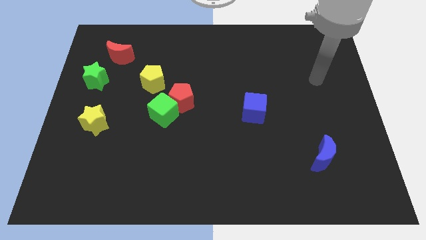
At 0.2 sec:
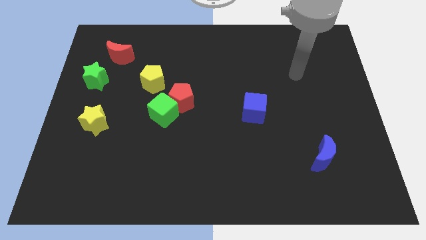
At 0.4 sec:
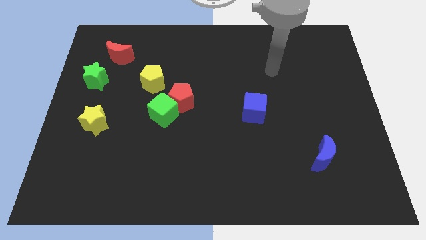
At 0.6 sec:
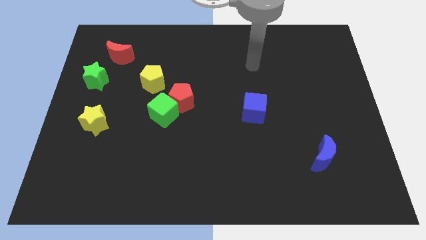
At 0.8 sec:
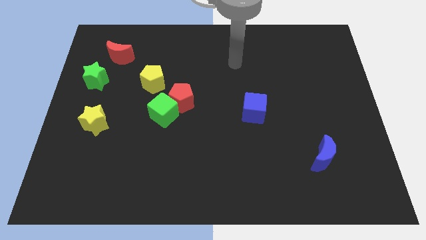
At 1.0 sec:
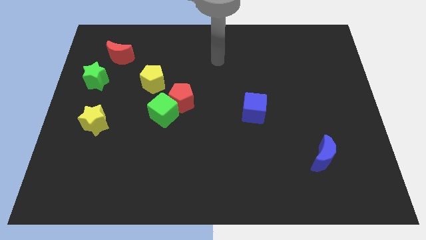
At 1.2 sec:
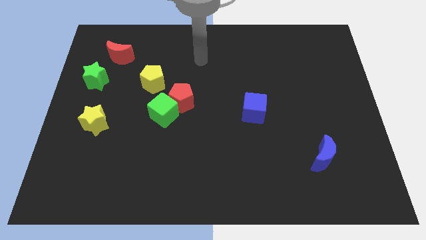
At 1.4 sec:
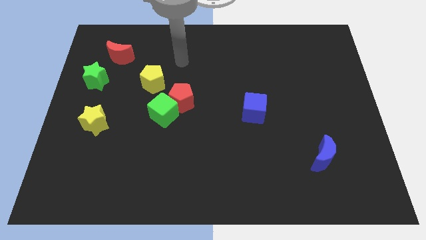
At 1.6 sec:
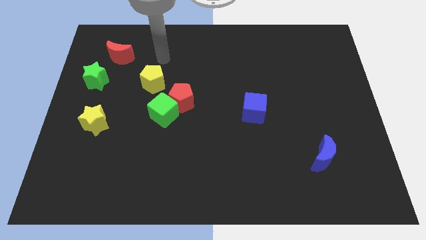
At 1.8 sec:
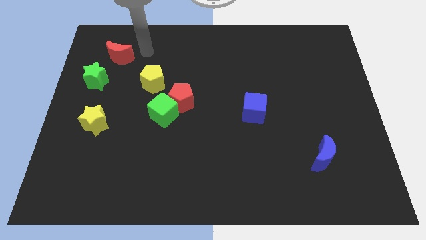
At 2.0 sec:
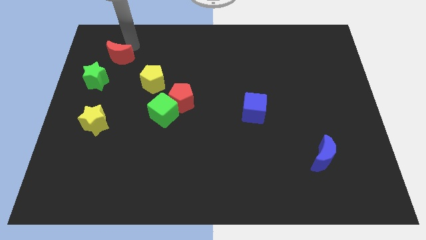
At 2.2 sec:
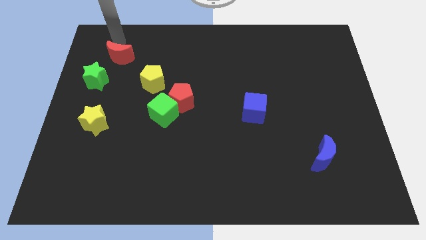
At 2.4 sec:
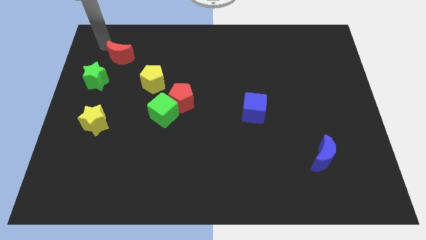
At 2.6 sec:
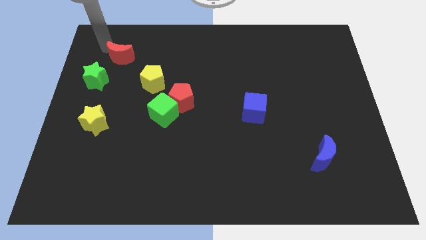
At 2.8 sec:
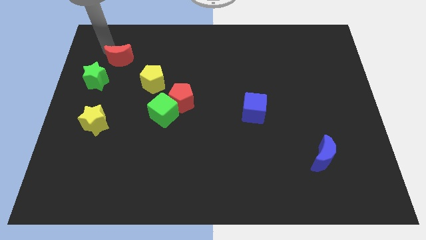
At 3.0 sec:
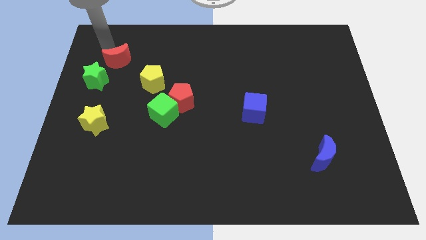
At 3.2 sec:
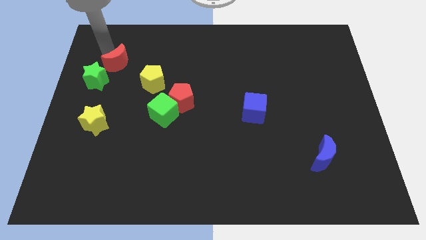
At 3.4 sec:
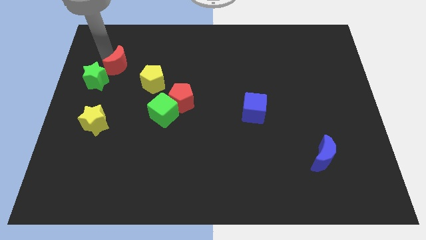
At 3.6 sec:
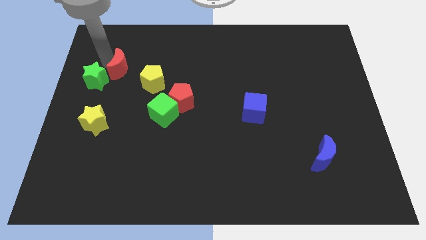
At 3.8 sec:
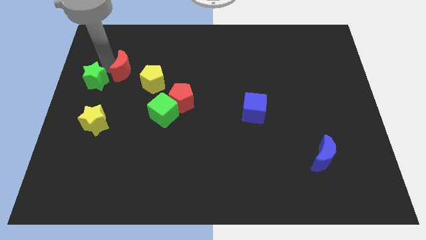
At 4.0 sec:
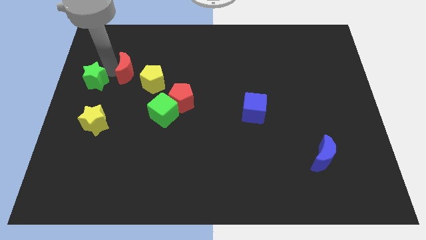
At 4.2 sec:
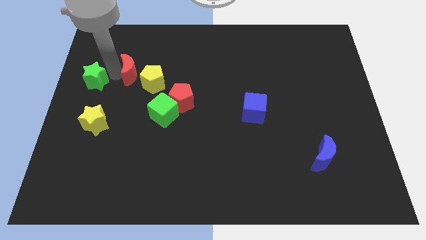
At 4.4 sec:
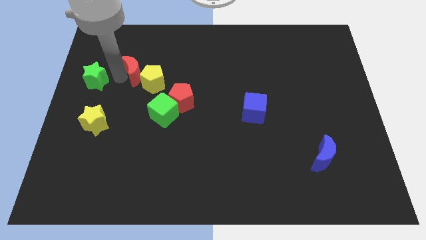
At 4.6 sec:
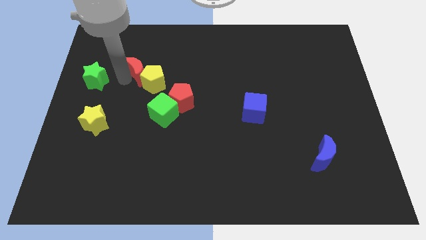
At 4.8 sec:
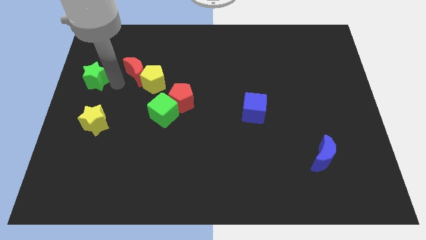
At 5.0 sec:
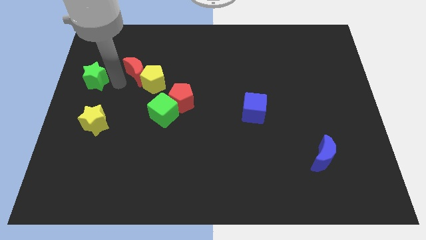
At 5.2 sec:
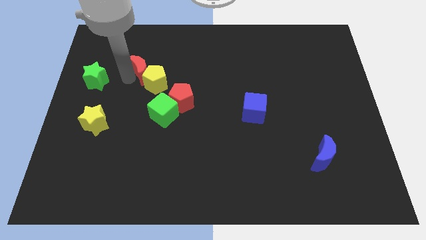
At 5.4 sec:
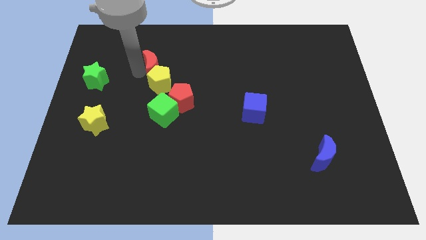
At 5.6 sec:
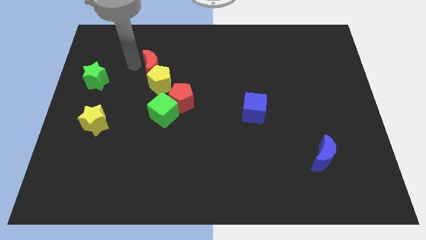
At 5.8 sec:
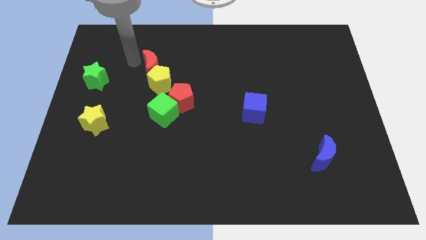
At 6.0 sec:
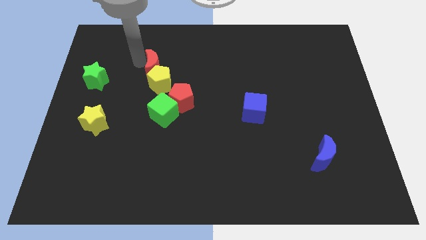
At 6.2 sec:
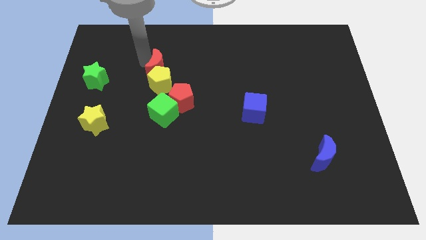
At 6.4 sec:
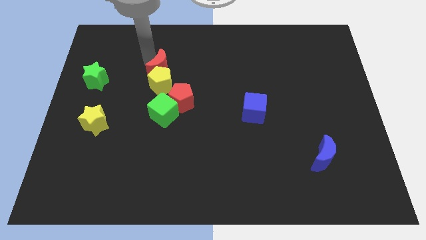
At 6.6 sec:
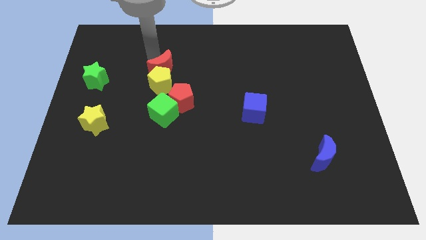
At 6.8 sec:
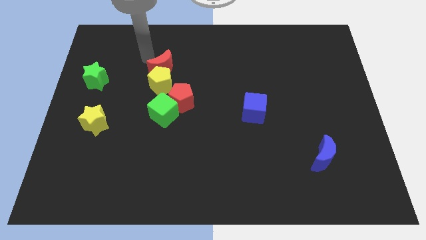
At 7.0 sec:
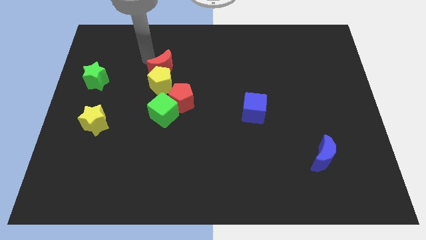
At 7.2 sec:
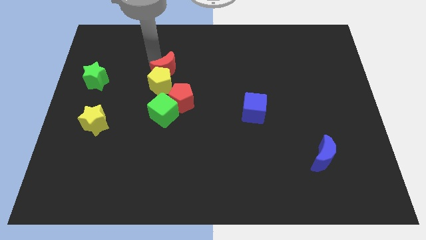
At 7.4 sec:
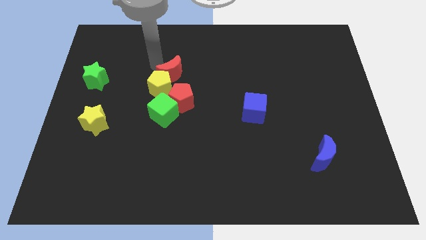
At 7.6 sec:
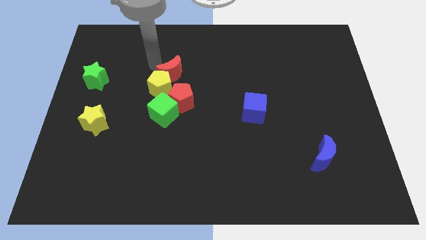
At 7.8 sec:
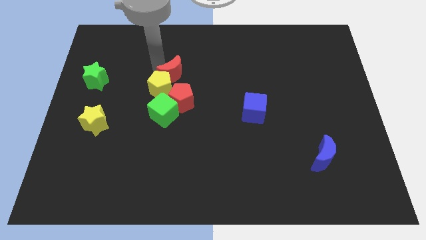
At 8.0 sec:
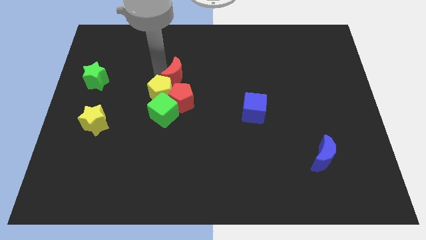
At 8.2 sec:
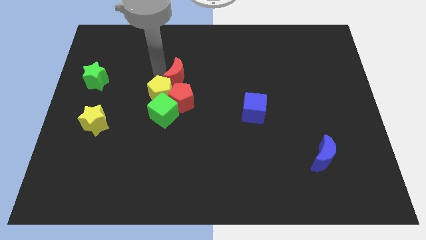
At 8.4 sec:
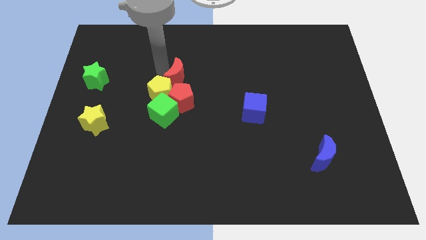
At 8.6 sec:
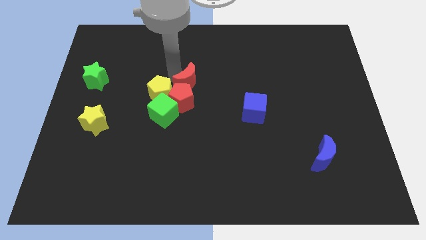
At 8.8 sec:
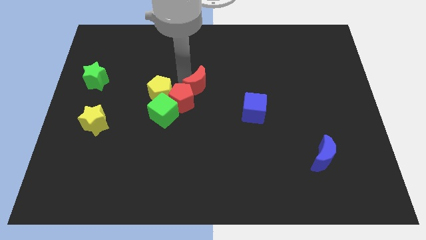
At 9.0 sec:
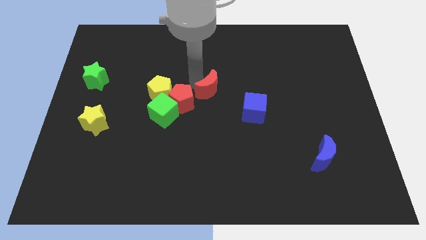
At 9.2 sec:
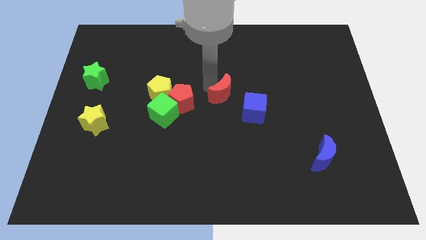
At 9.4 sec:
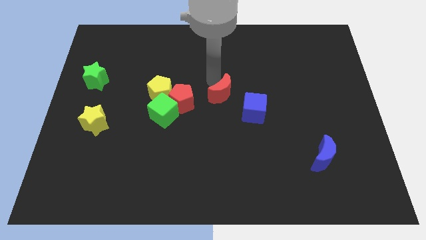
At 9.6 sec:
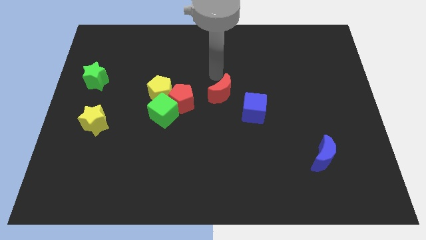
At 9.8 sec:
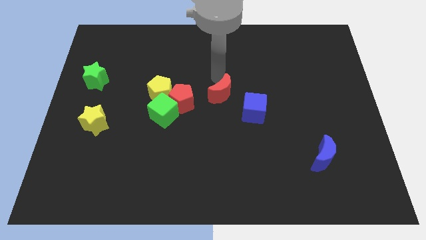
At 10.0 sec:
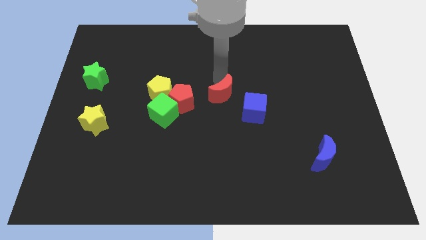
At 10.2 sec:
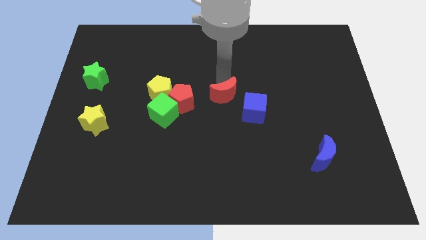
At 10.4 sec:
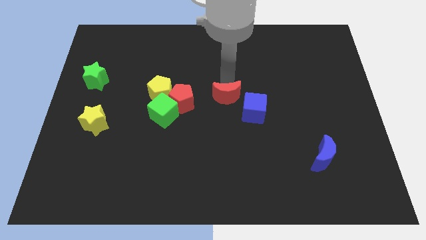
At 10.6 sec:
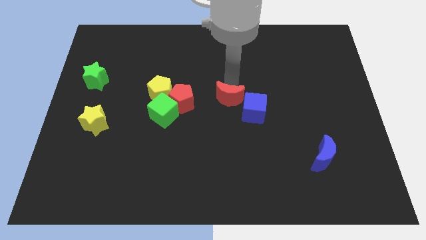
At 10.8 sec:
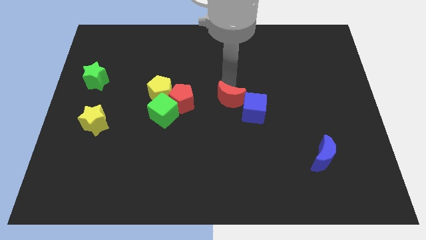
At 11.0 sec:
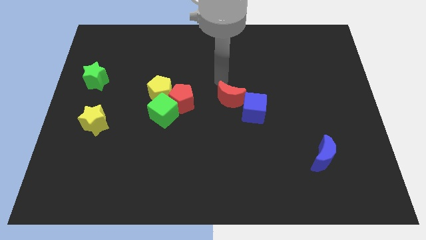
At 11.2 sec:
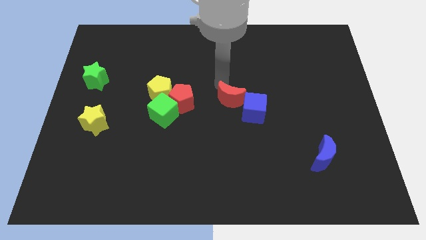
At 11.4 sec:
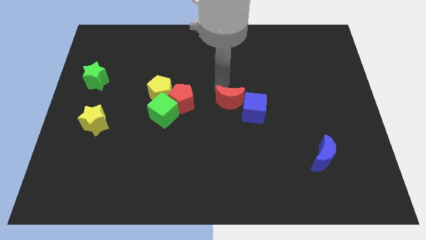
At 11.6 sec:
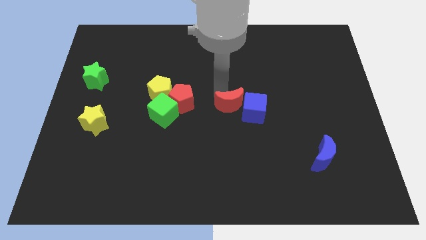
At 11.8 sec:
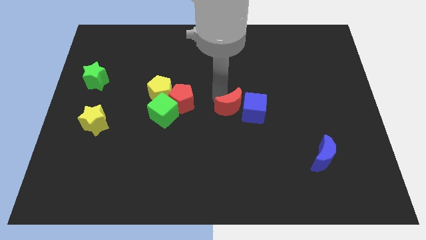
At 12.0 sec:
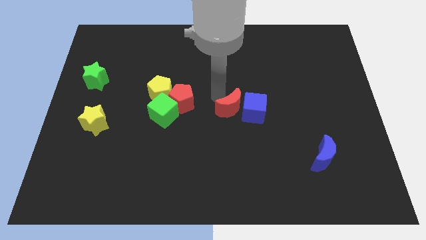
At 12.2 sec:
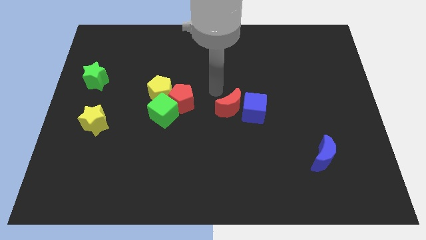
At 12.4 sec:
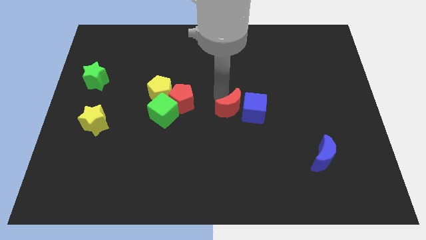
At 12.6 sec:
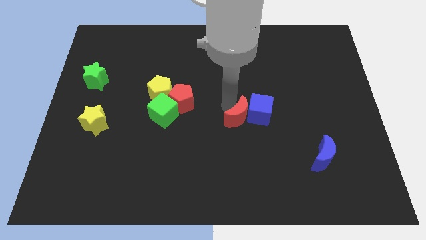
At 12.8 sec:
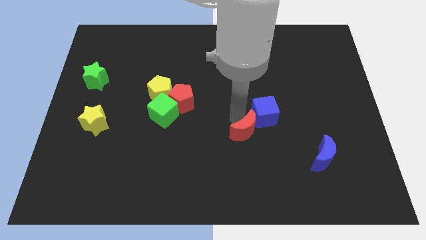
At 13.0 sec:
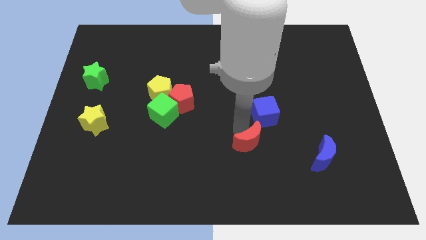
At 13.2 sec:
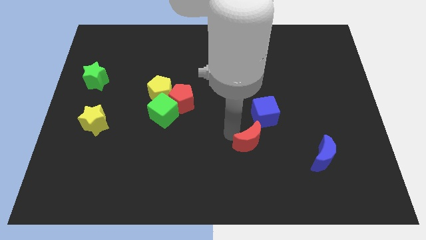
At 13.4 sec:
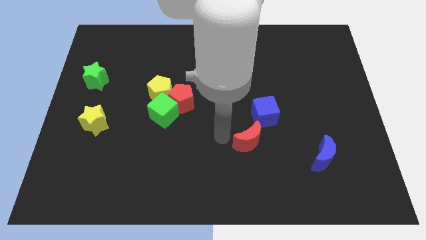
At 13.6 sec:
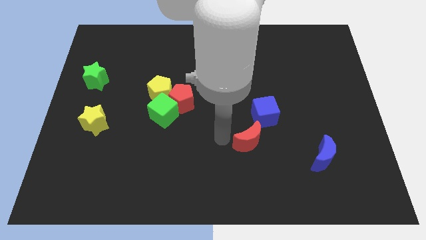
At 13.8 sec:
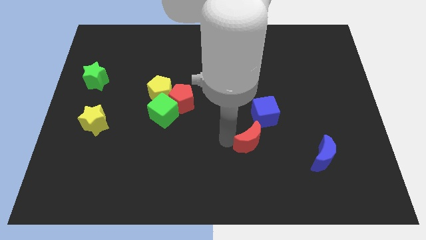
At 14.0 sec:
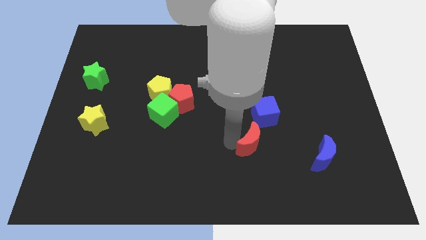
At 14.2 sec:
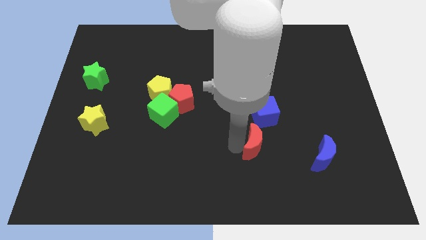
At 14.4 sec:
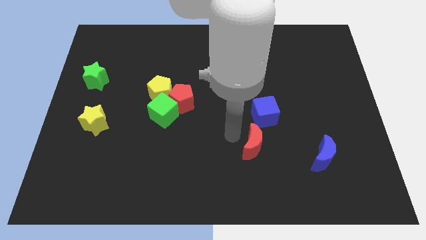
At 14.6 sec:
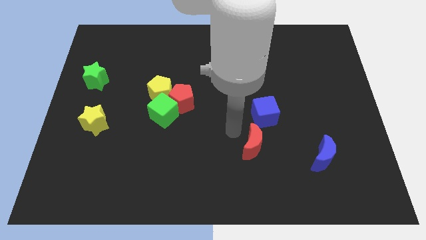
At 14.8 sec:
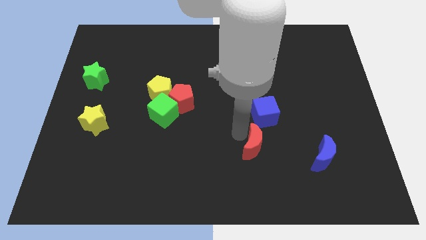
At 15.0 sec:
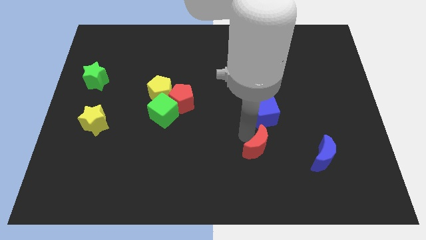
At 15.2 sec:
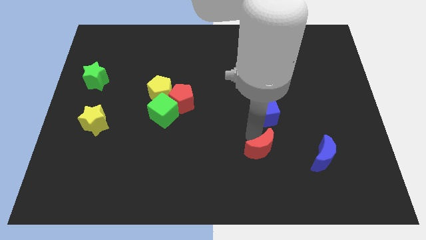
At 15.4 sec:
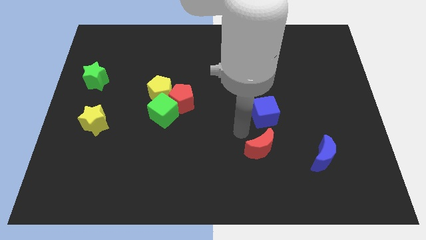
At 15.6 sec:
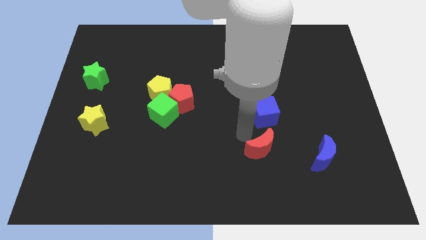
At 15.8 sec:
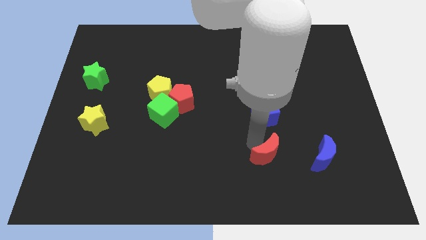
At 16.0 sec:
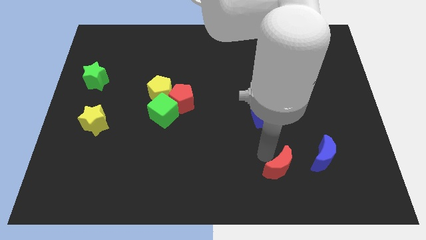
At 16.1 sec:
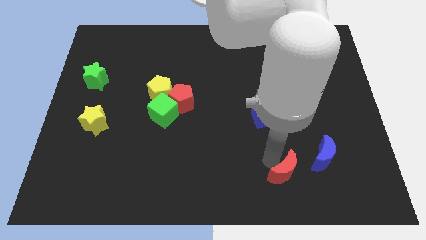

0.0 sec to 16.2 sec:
move the red moon to the bottom left side of the blue moon
